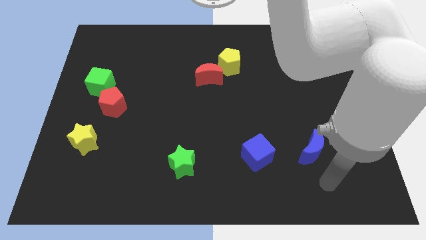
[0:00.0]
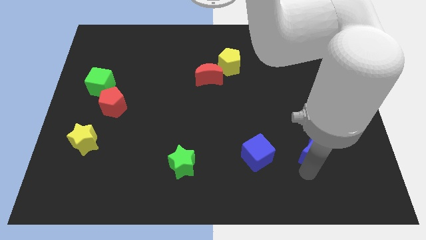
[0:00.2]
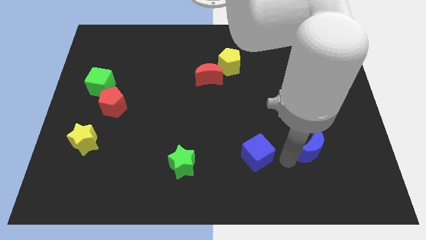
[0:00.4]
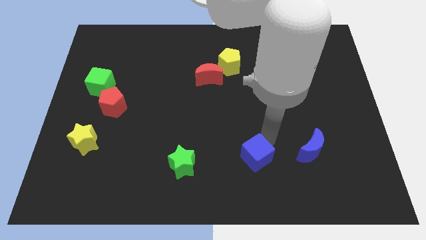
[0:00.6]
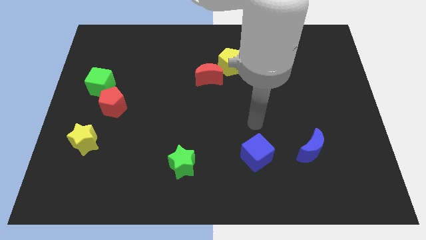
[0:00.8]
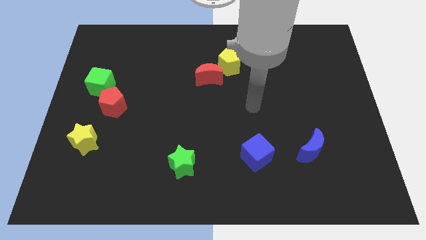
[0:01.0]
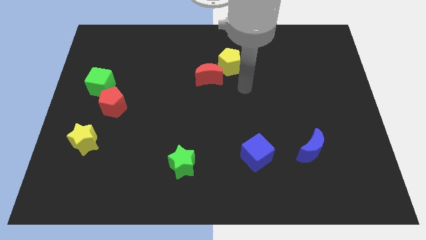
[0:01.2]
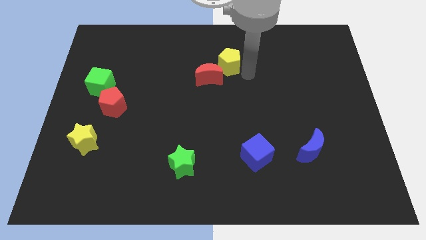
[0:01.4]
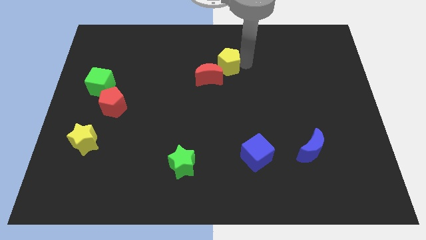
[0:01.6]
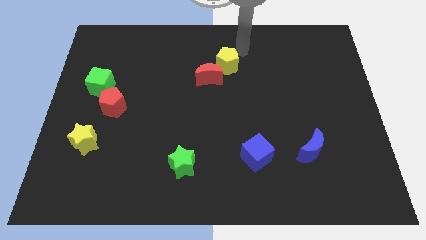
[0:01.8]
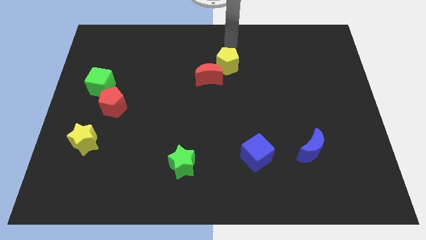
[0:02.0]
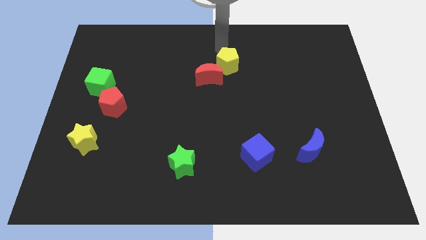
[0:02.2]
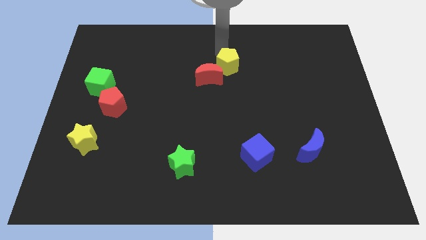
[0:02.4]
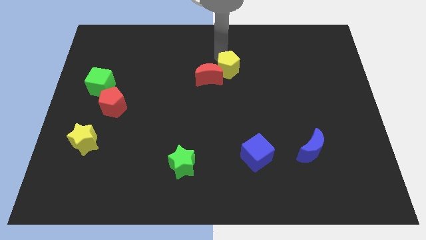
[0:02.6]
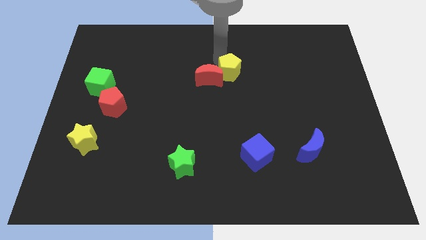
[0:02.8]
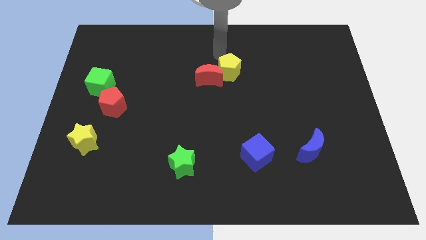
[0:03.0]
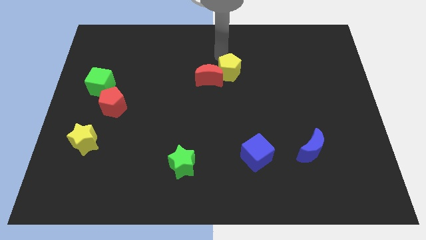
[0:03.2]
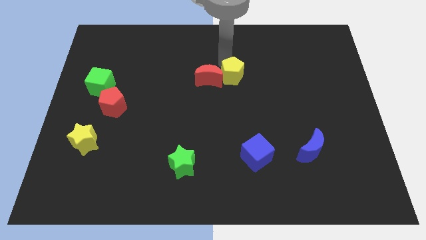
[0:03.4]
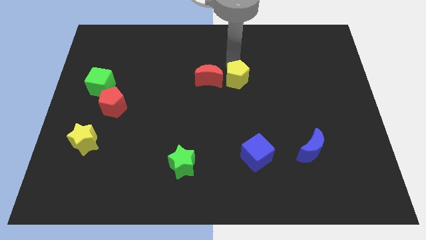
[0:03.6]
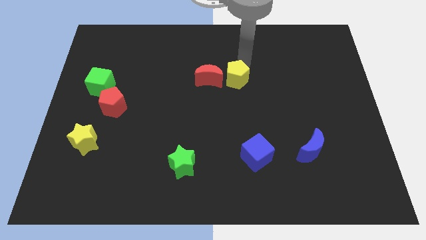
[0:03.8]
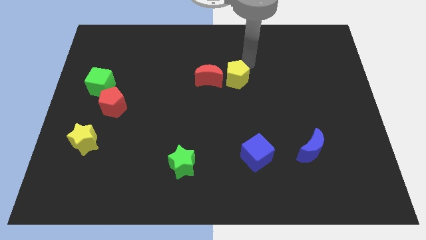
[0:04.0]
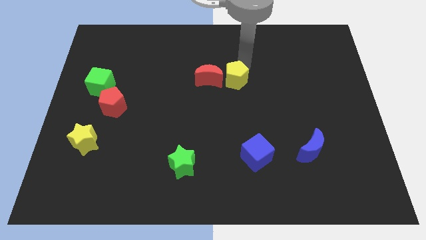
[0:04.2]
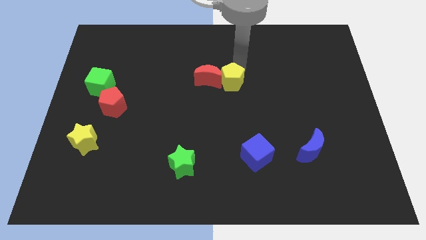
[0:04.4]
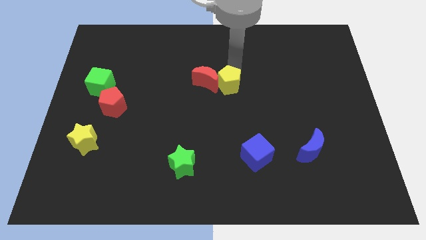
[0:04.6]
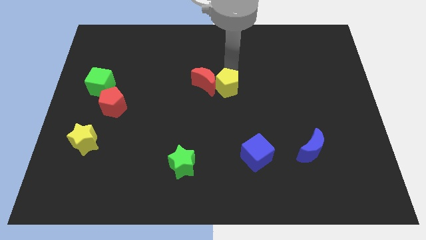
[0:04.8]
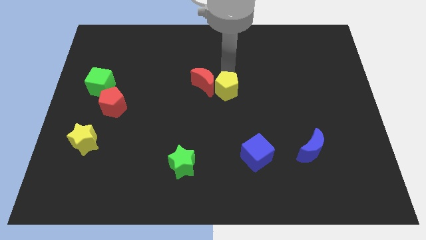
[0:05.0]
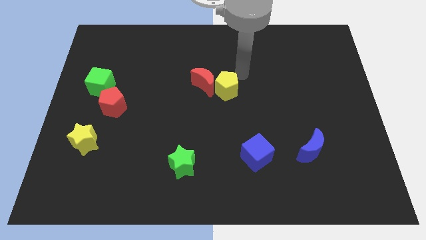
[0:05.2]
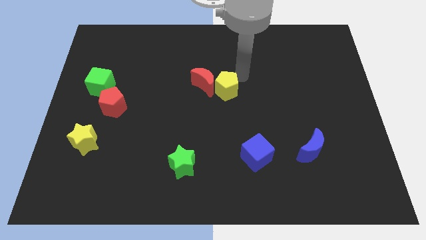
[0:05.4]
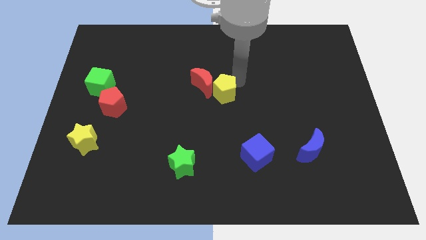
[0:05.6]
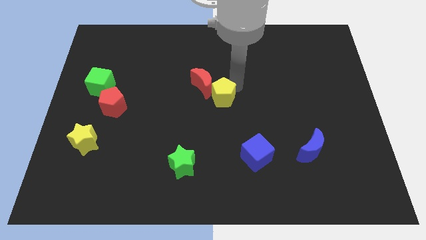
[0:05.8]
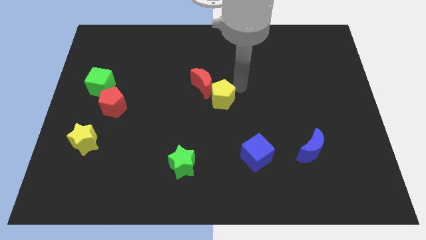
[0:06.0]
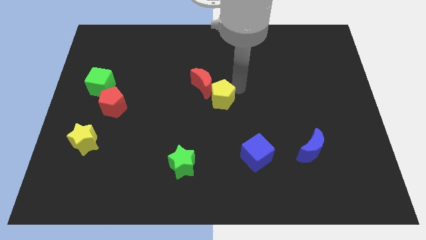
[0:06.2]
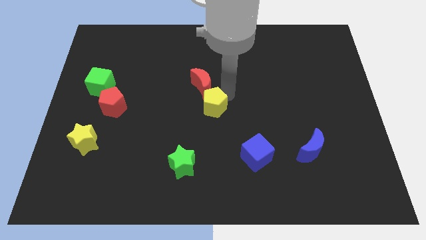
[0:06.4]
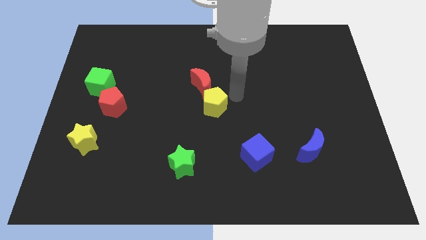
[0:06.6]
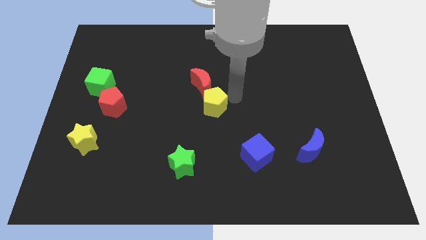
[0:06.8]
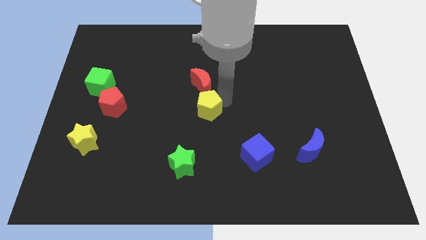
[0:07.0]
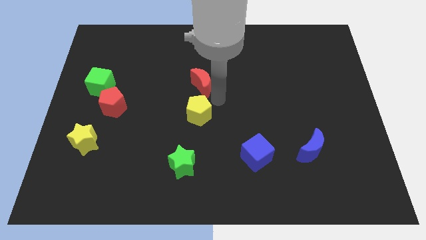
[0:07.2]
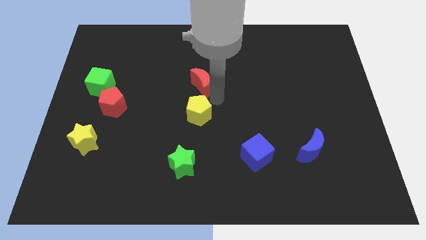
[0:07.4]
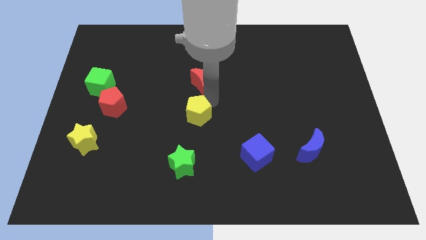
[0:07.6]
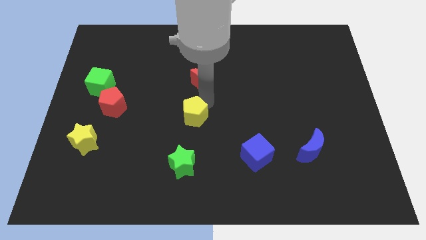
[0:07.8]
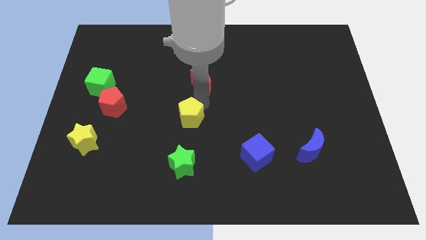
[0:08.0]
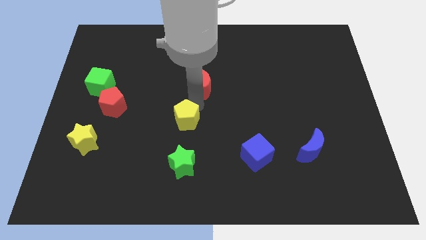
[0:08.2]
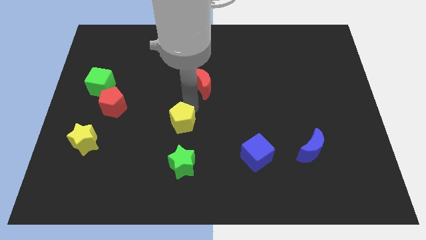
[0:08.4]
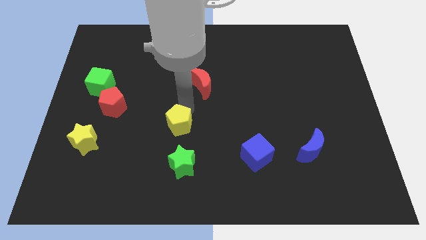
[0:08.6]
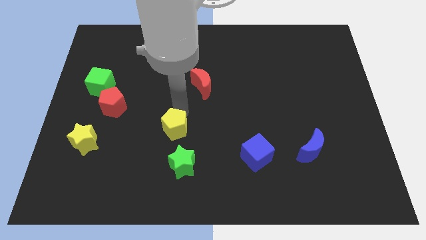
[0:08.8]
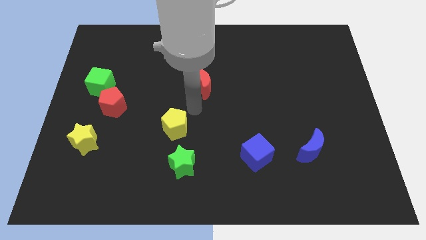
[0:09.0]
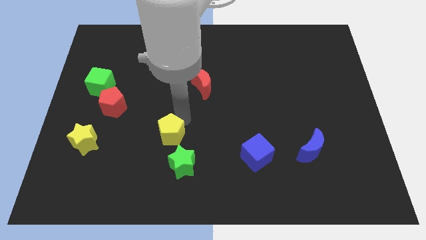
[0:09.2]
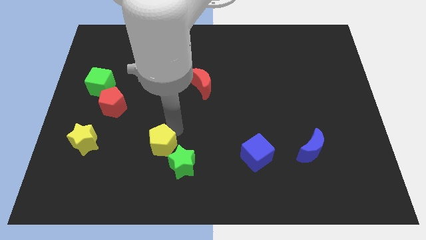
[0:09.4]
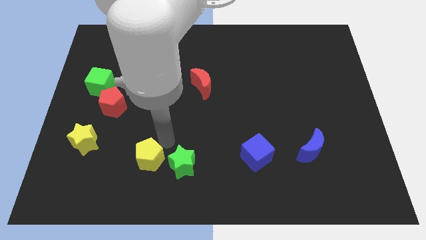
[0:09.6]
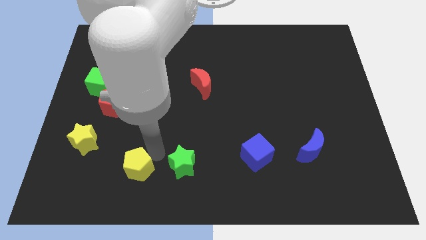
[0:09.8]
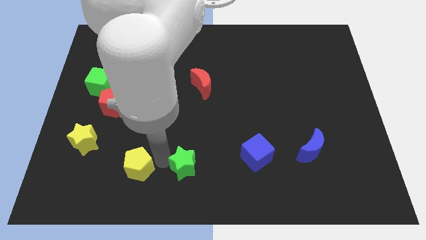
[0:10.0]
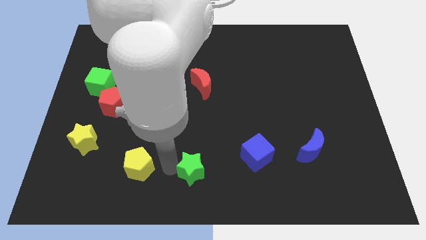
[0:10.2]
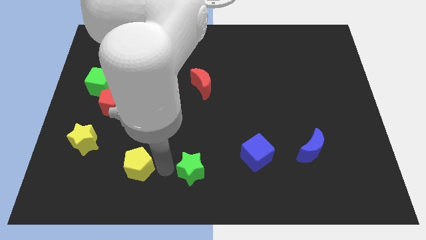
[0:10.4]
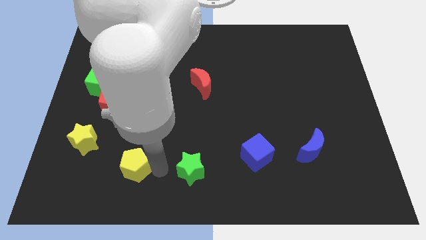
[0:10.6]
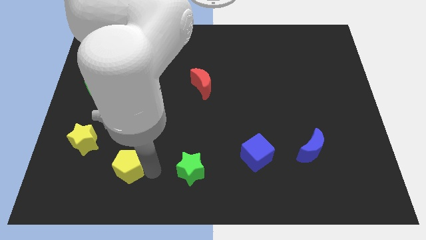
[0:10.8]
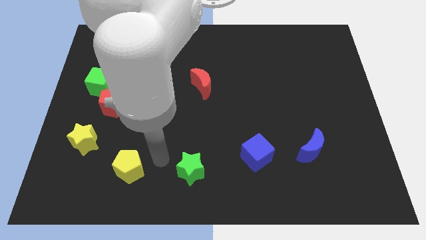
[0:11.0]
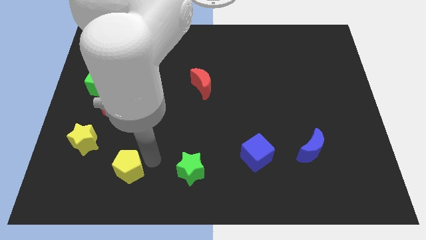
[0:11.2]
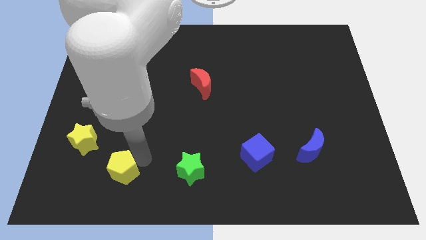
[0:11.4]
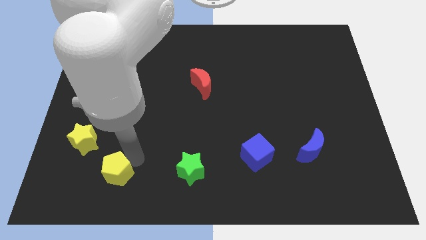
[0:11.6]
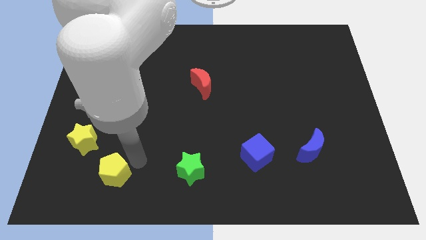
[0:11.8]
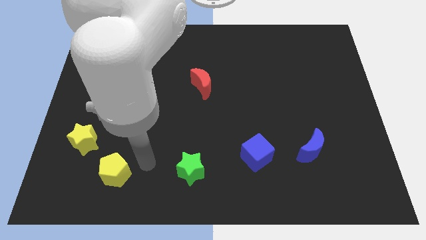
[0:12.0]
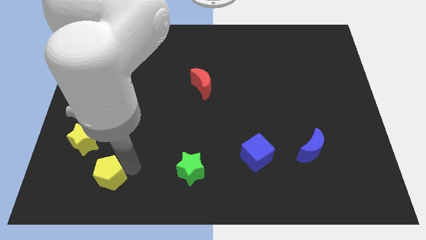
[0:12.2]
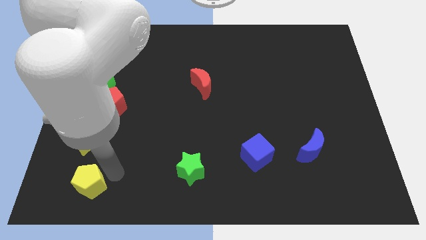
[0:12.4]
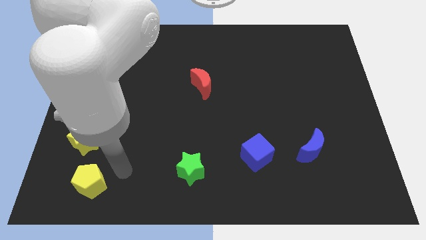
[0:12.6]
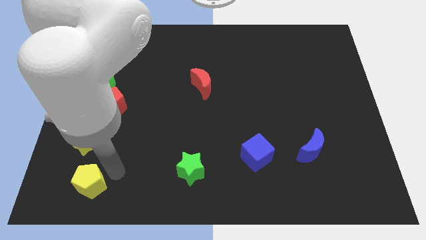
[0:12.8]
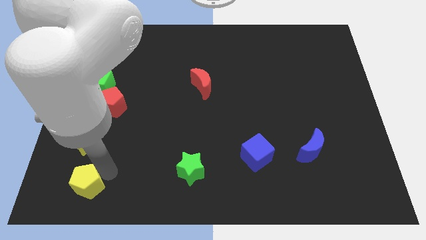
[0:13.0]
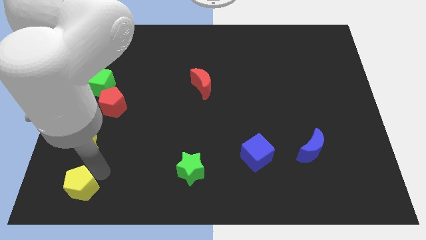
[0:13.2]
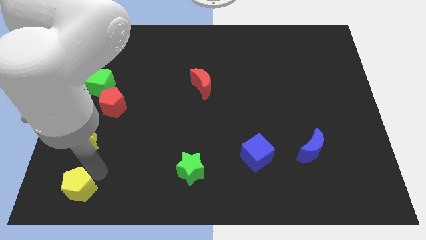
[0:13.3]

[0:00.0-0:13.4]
slide the yellow pentagon to the lower left corner

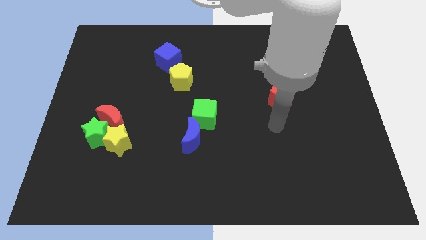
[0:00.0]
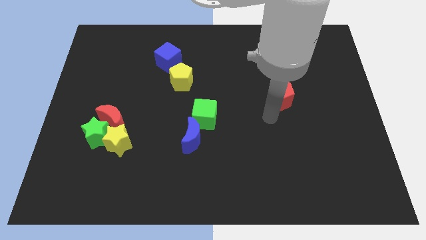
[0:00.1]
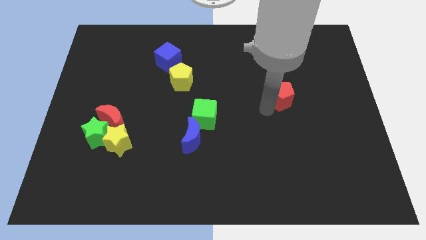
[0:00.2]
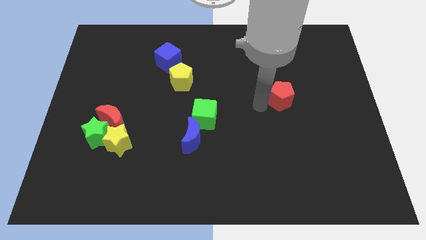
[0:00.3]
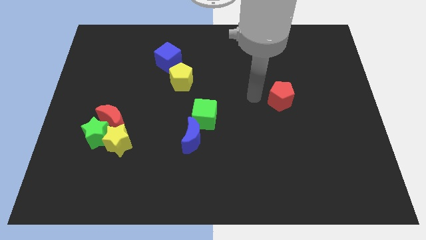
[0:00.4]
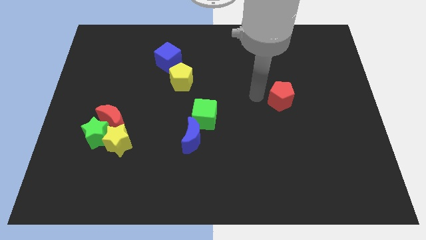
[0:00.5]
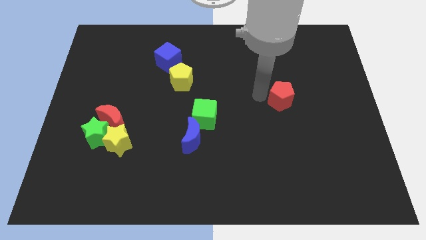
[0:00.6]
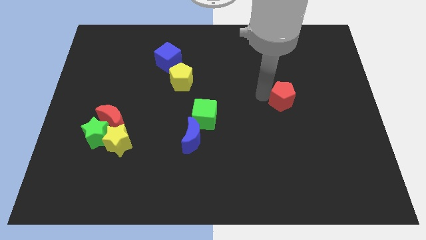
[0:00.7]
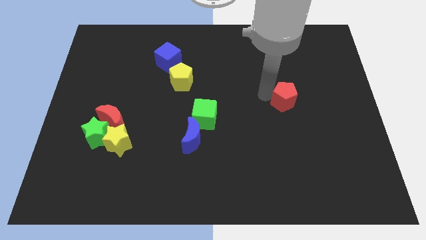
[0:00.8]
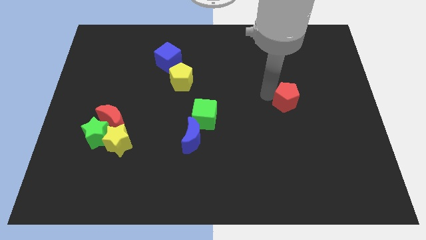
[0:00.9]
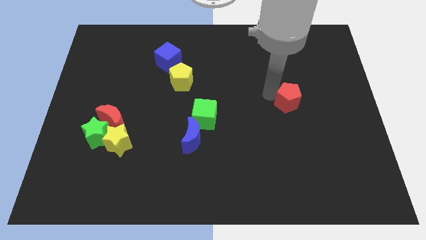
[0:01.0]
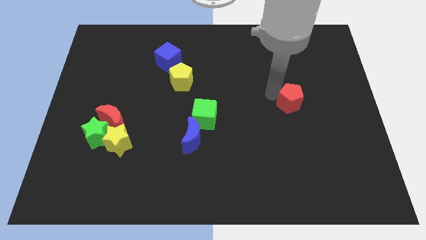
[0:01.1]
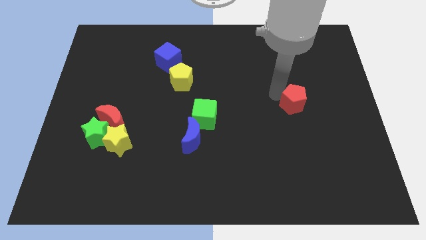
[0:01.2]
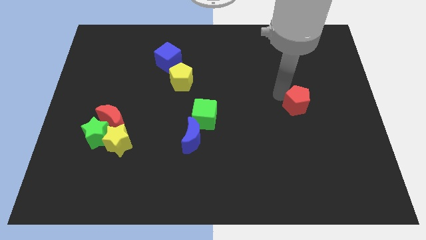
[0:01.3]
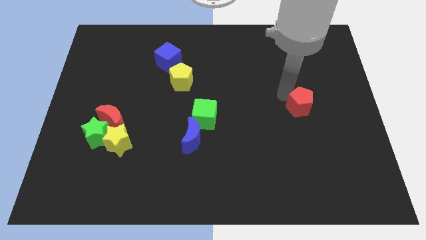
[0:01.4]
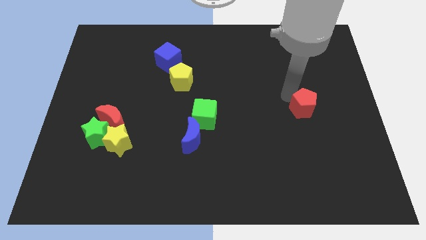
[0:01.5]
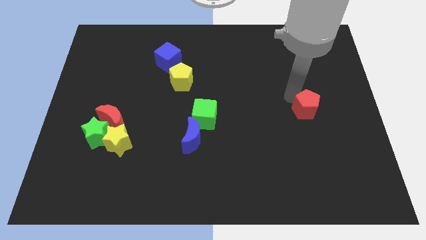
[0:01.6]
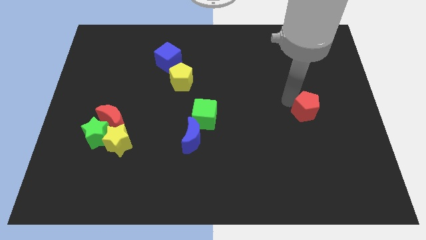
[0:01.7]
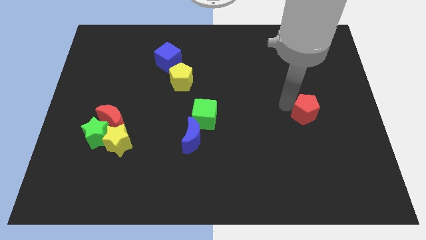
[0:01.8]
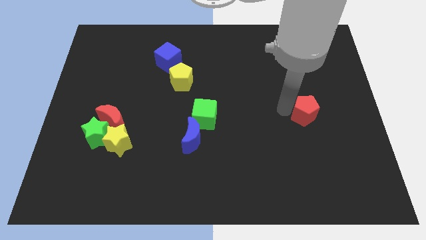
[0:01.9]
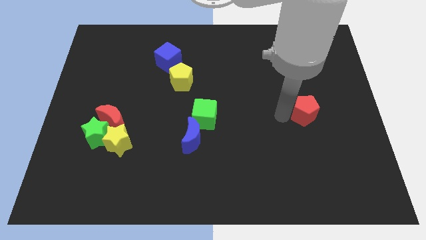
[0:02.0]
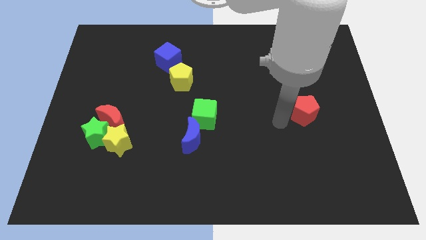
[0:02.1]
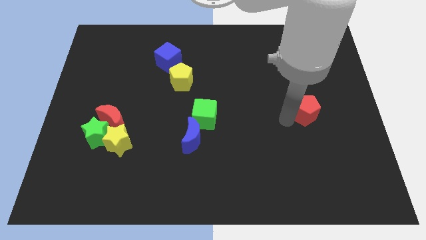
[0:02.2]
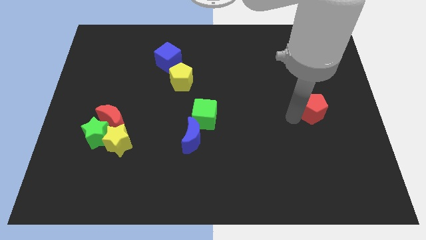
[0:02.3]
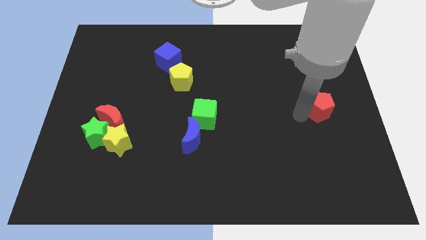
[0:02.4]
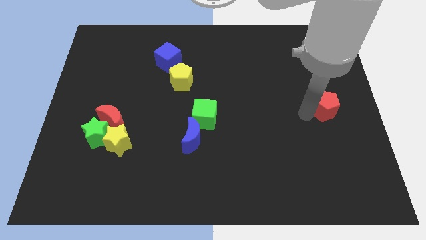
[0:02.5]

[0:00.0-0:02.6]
put the red pentagon to the right side of the board
